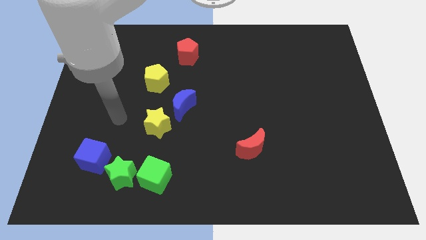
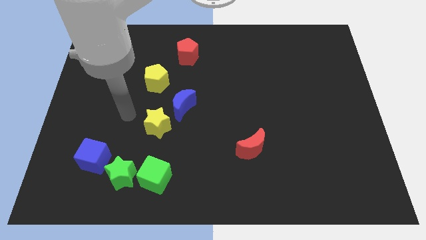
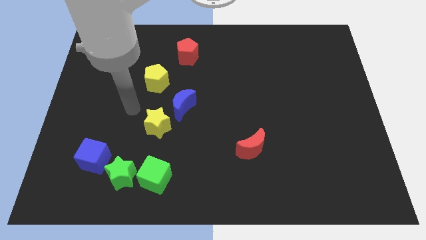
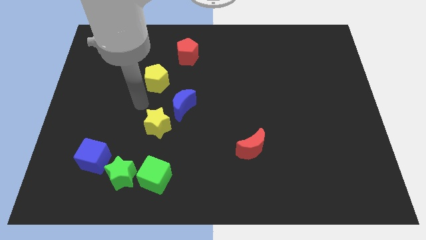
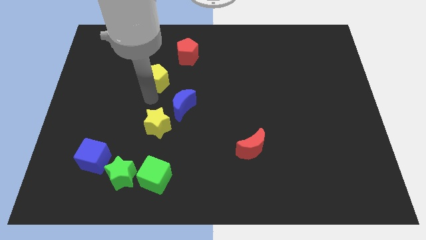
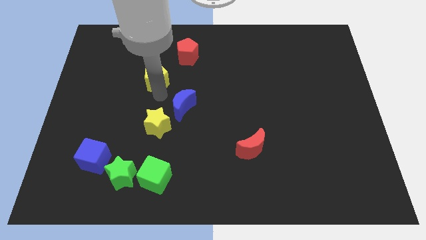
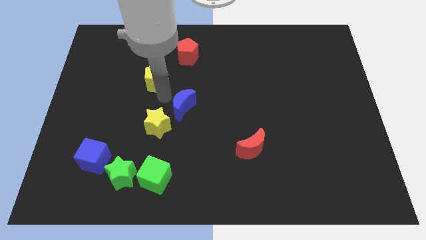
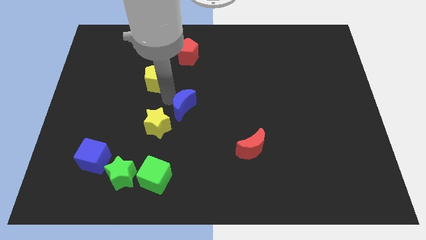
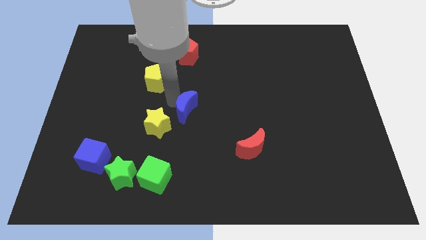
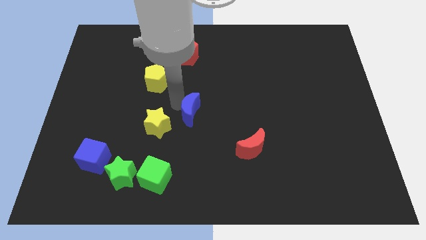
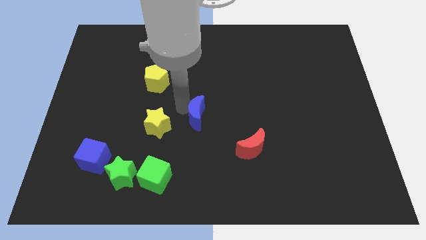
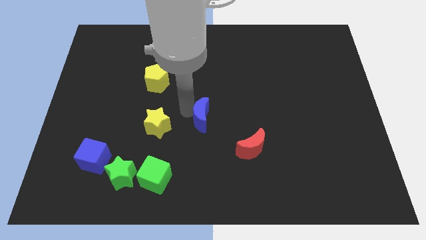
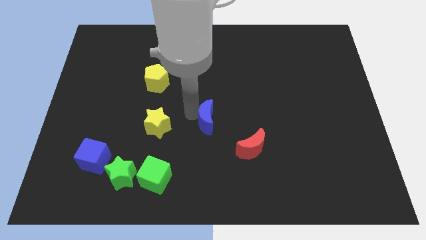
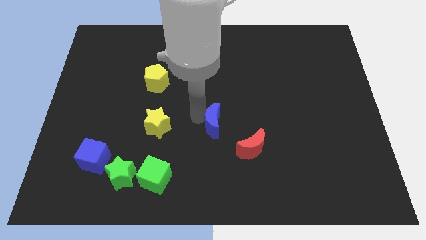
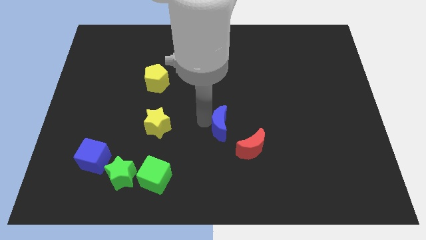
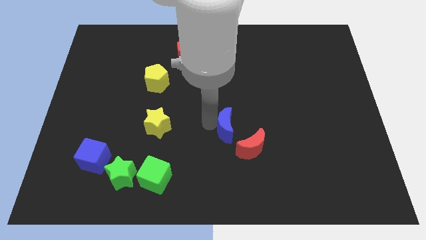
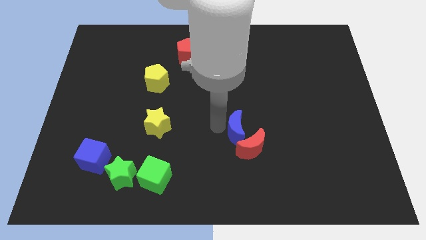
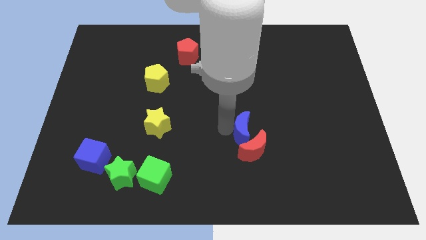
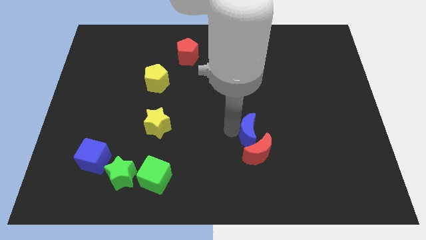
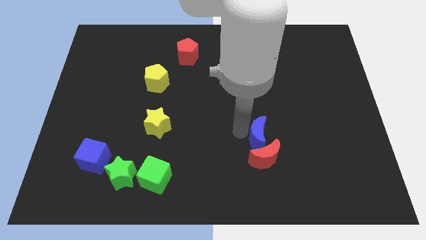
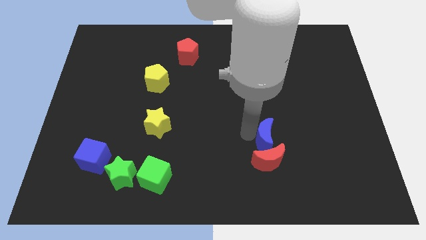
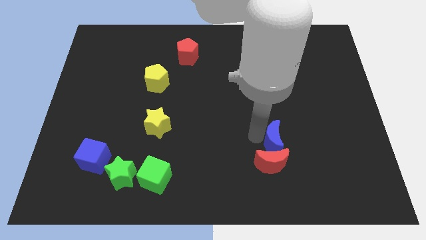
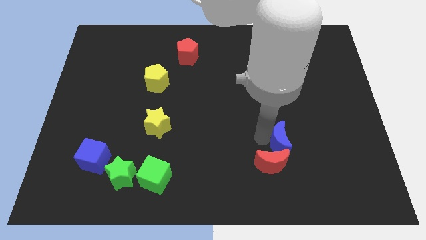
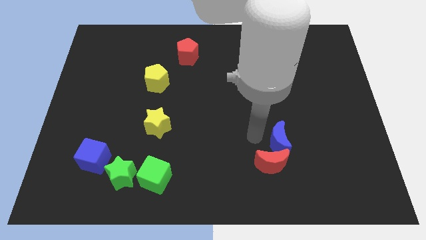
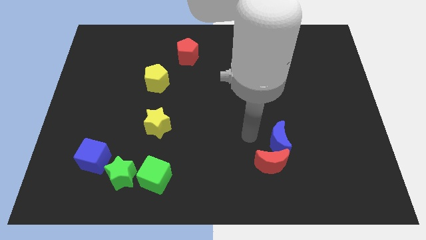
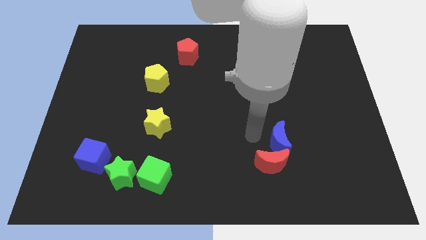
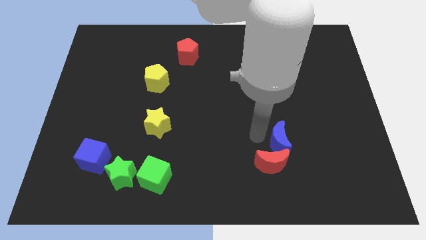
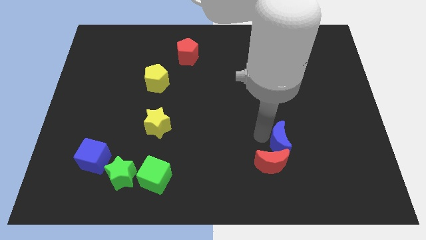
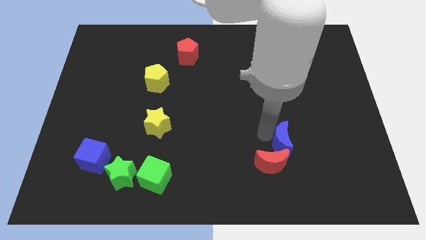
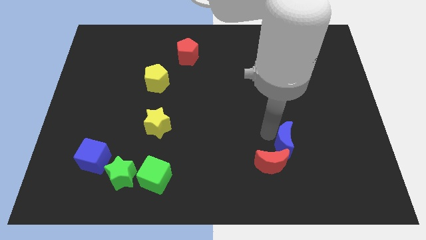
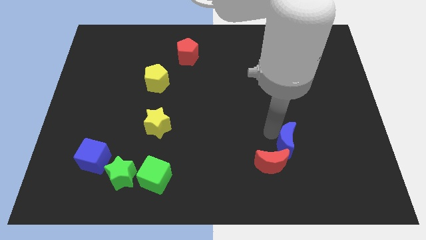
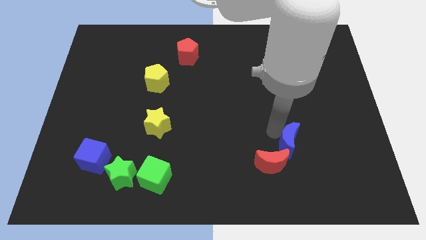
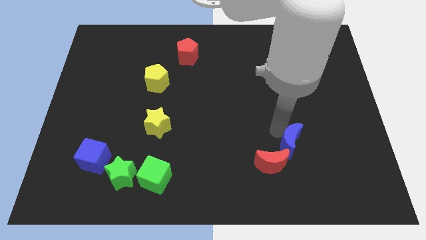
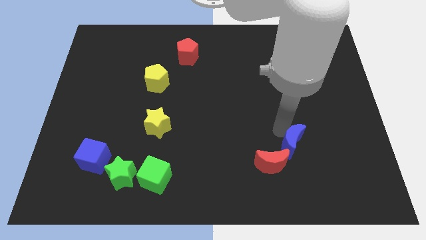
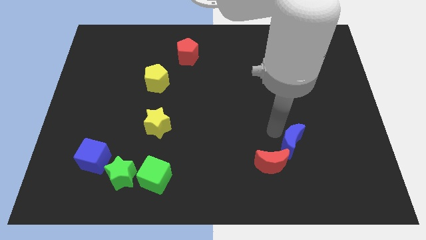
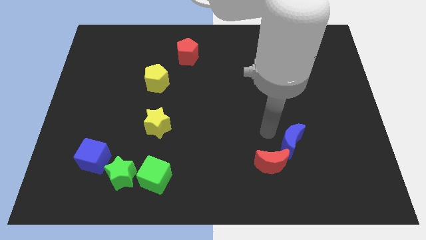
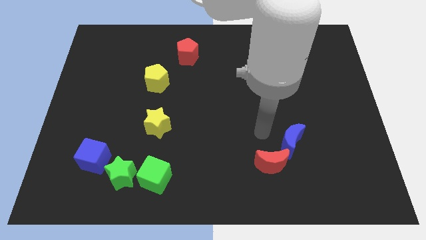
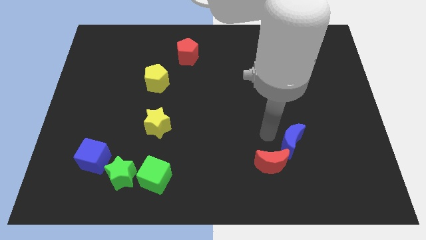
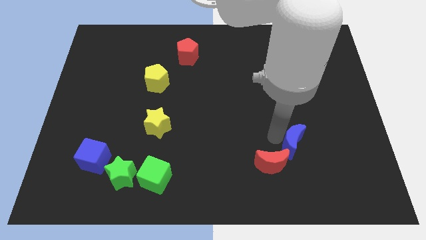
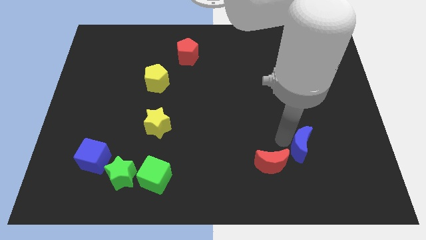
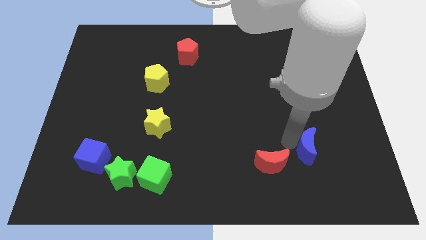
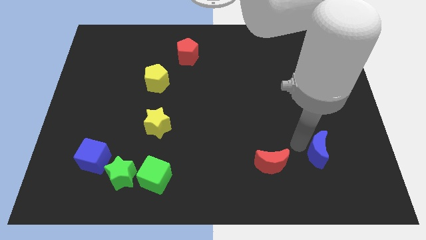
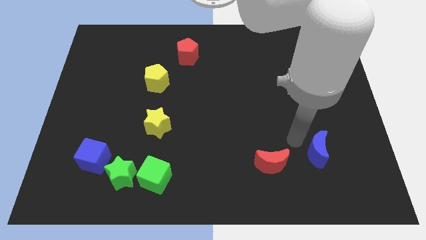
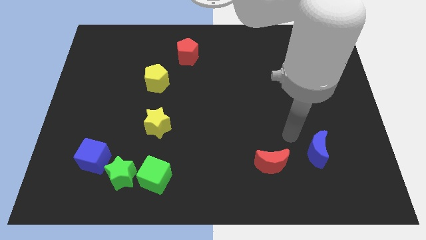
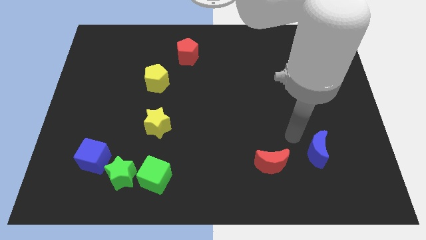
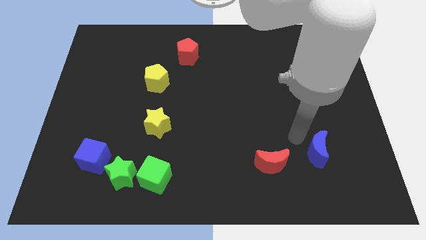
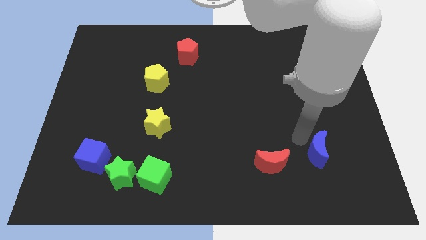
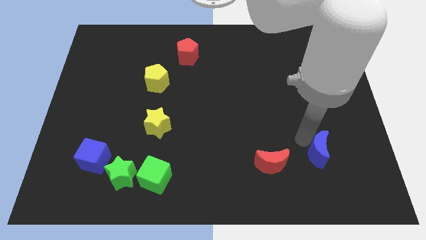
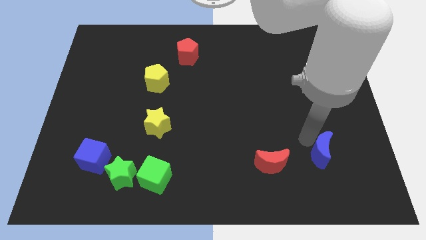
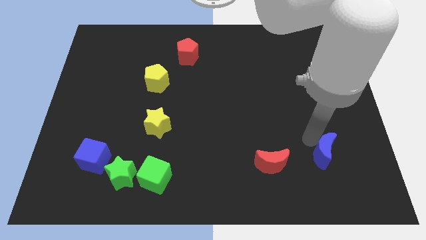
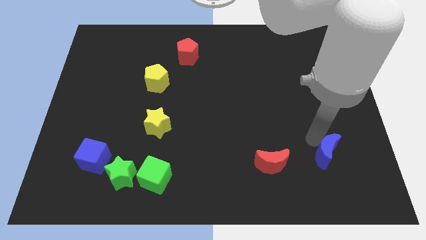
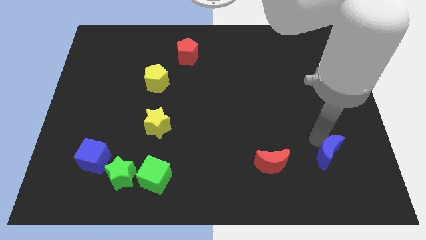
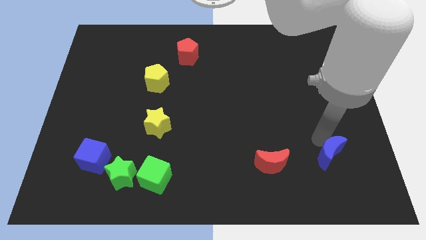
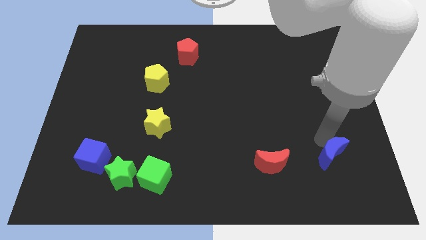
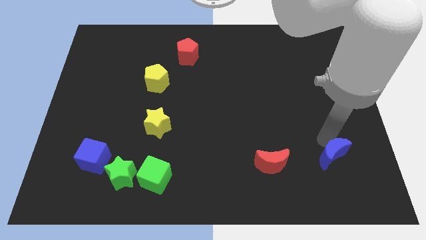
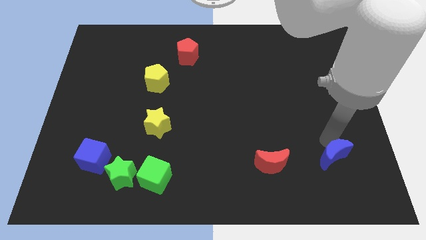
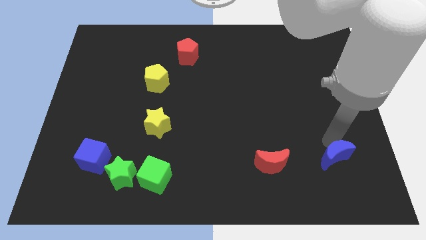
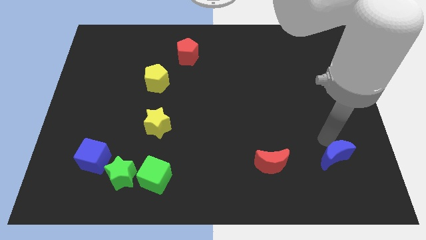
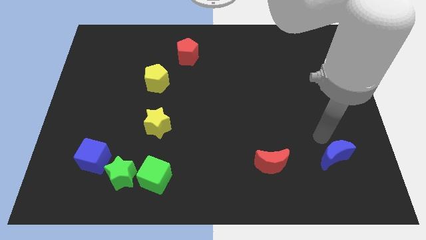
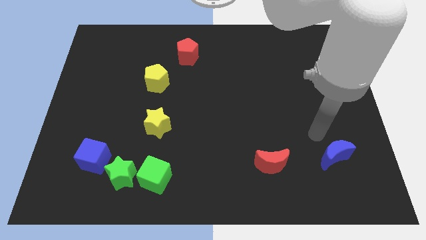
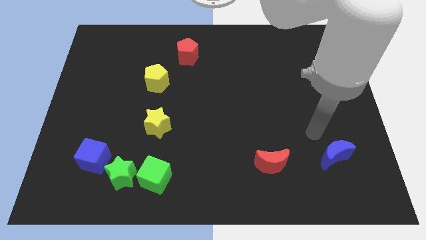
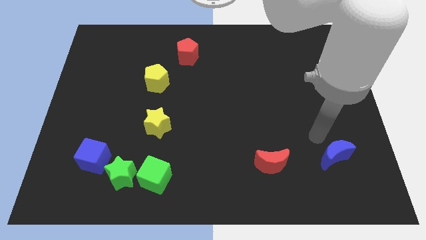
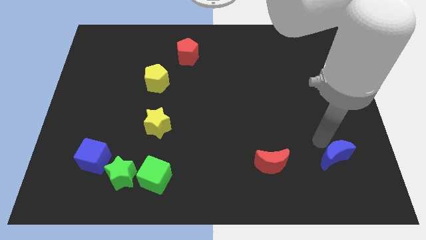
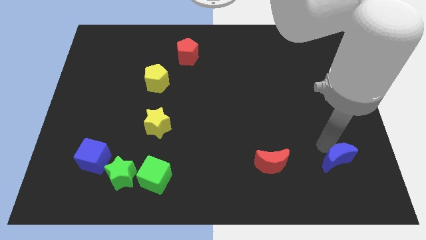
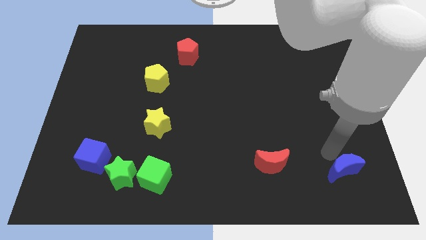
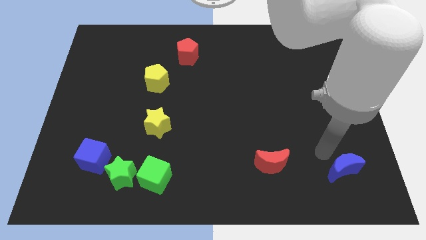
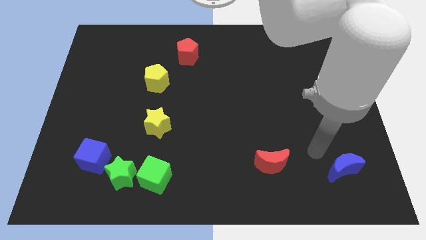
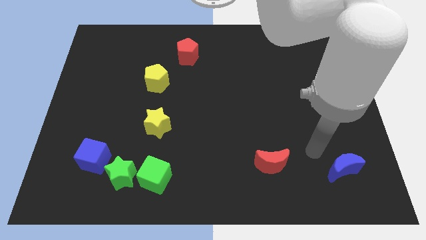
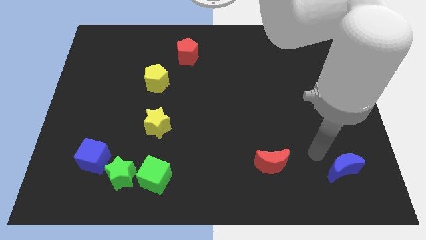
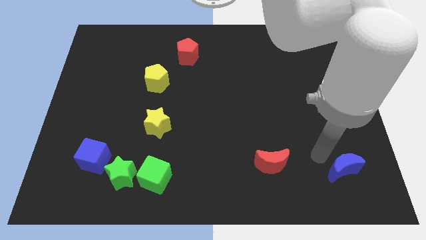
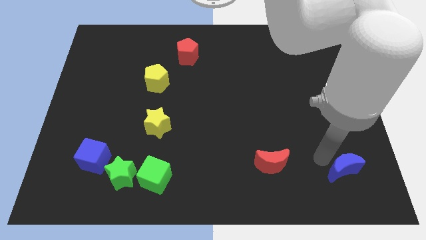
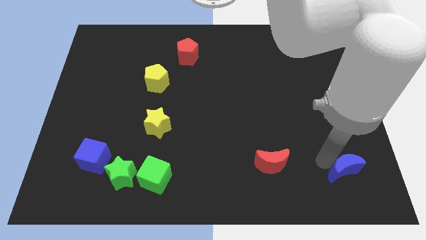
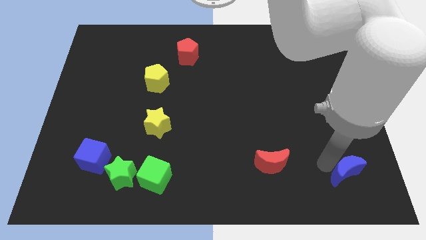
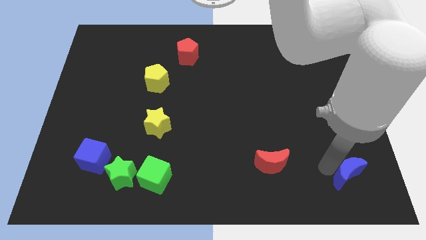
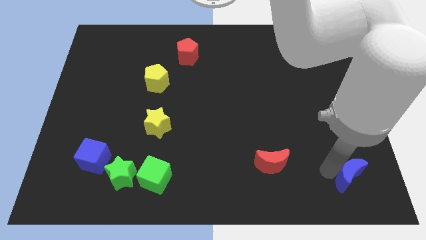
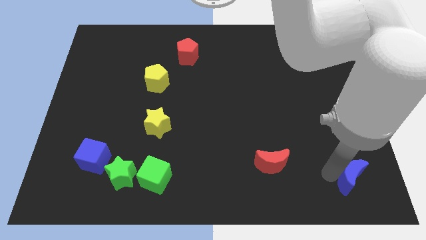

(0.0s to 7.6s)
put the blue moon to the lower right corner

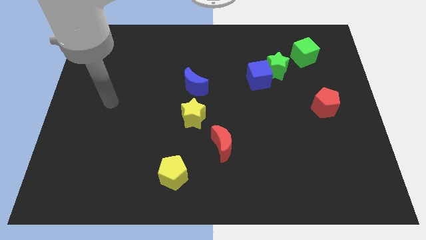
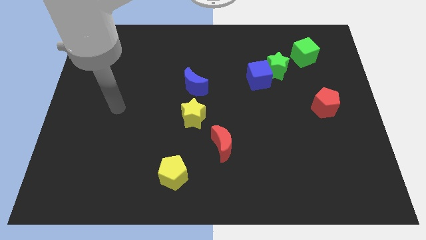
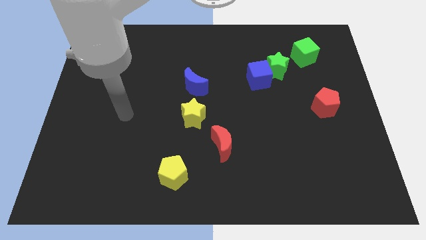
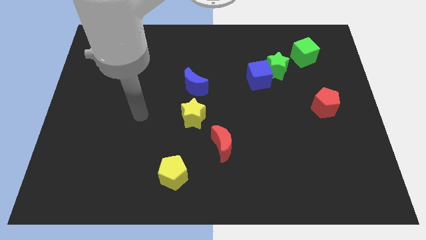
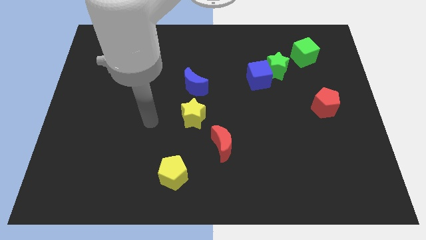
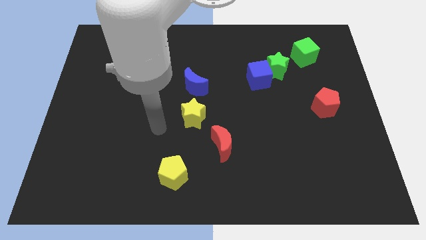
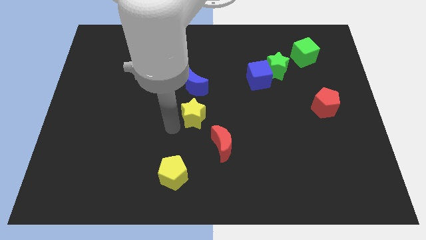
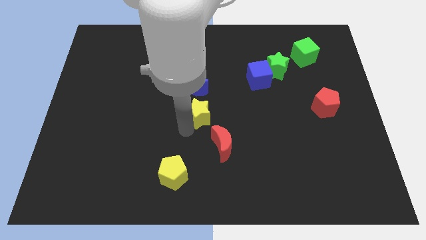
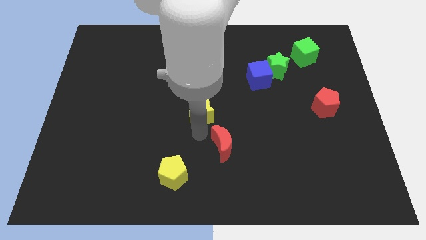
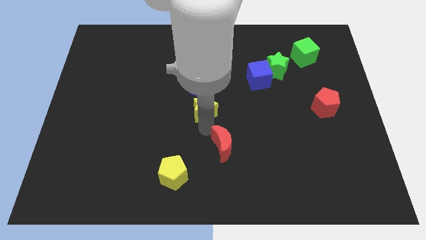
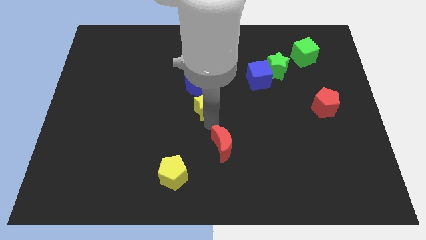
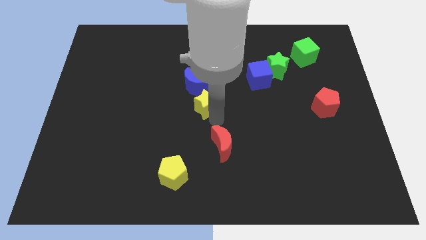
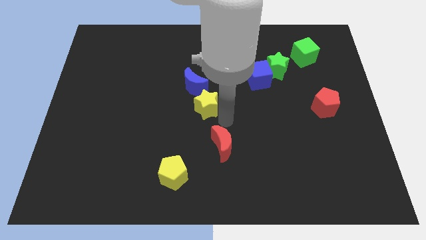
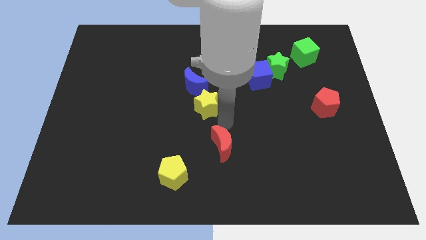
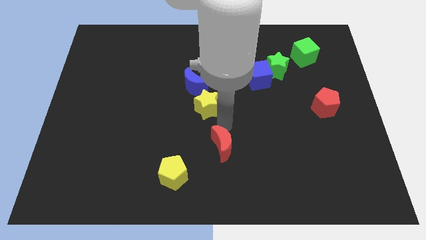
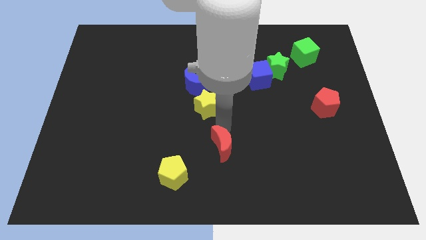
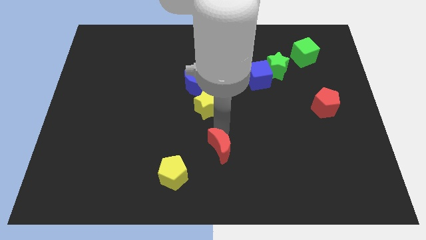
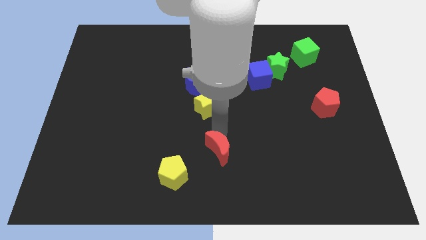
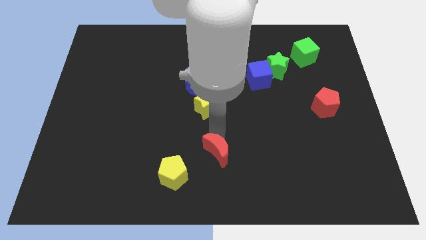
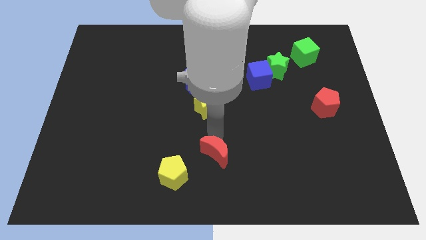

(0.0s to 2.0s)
move the red moon to the bottom
